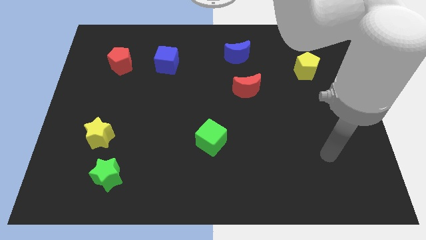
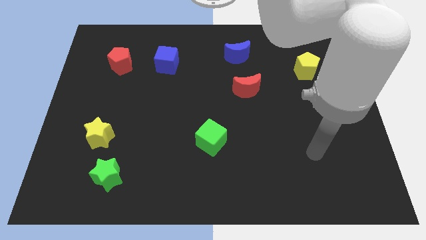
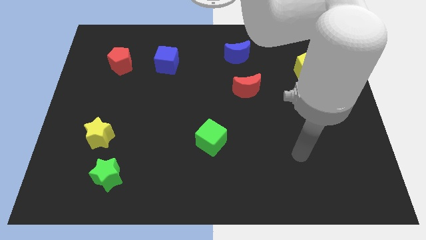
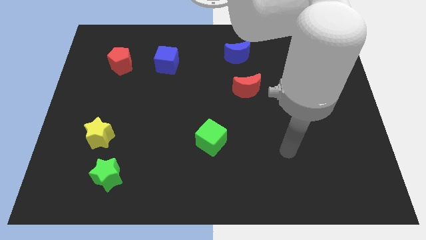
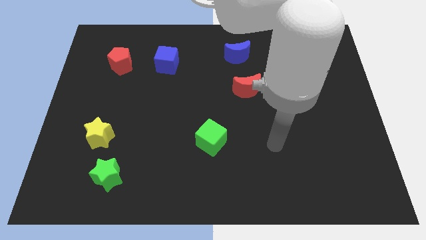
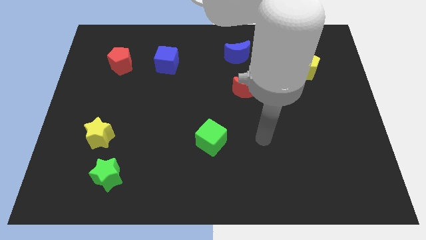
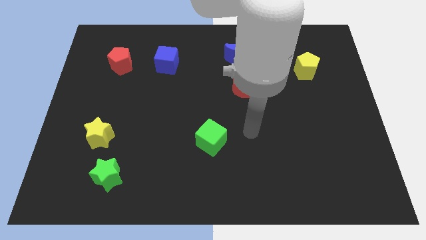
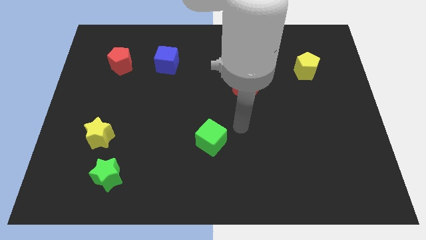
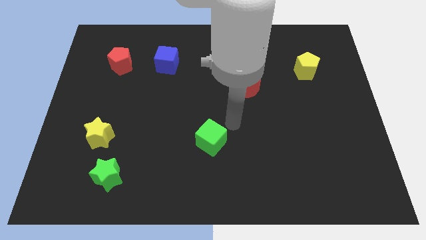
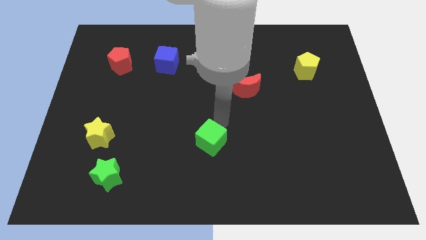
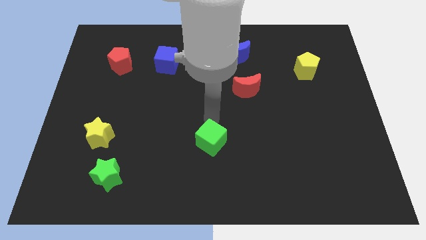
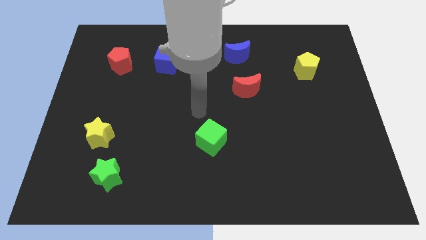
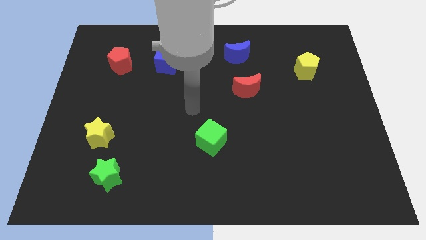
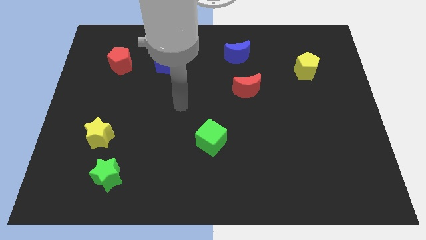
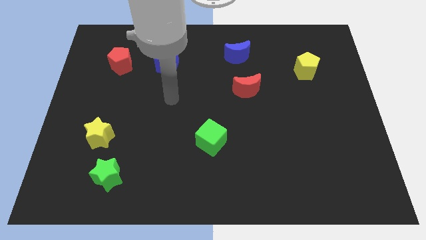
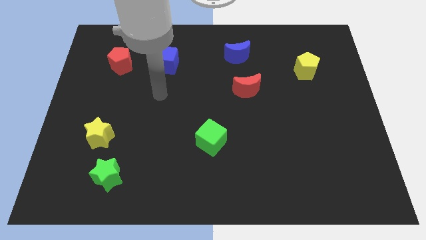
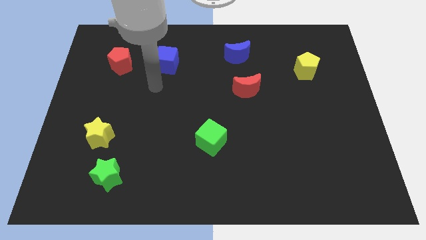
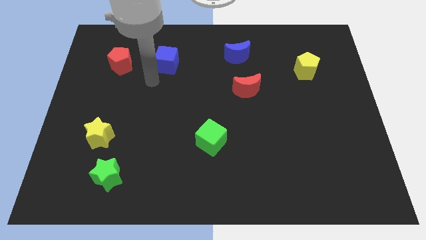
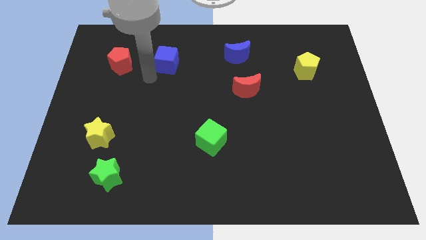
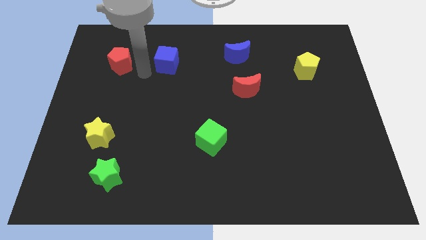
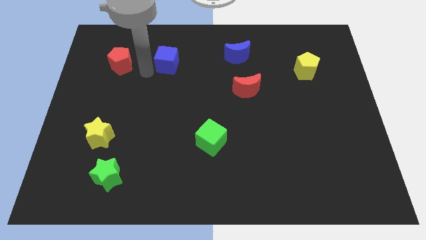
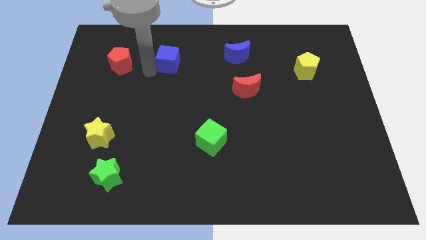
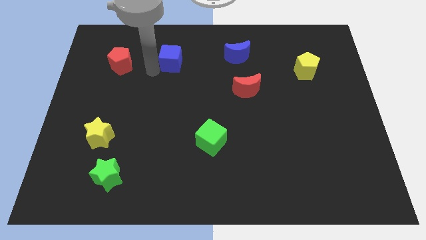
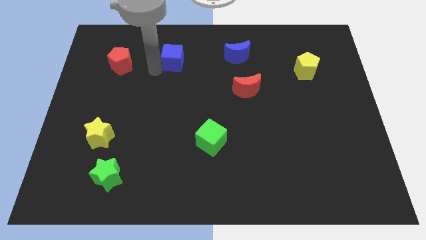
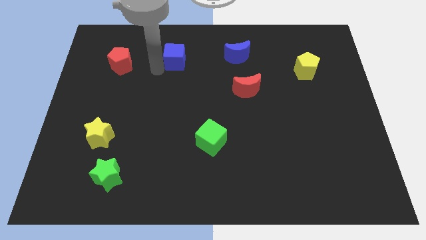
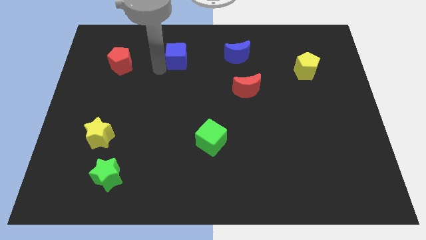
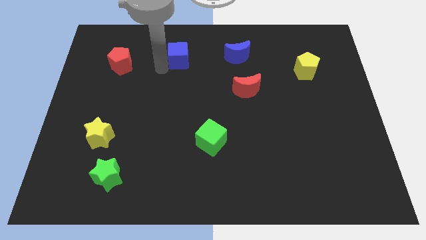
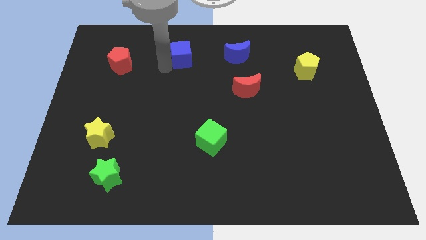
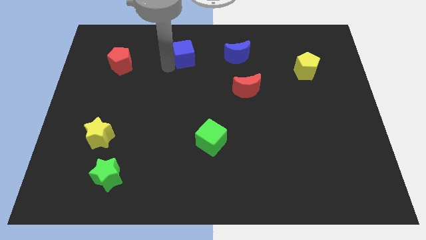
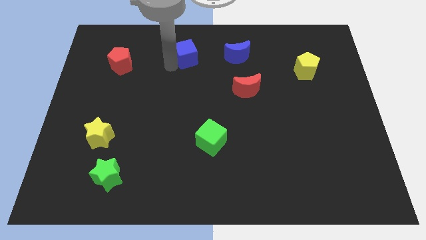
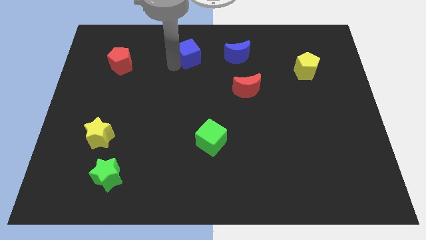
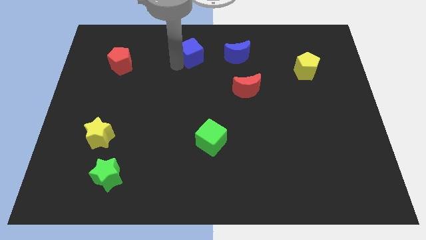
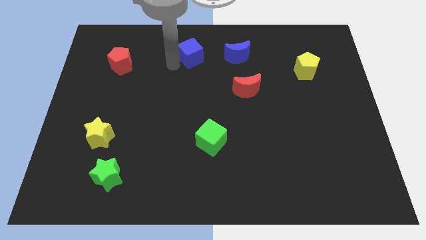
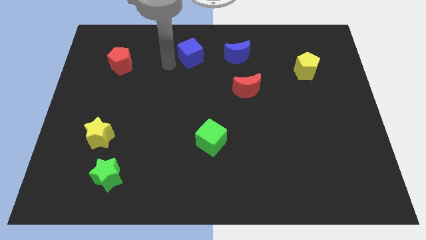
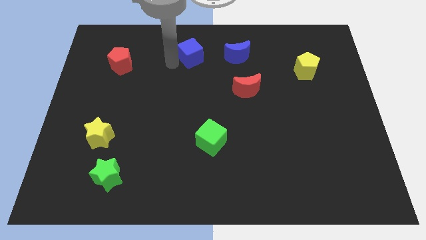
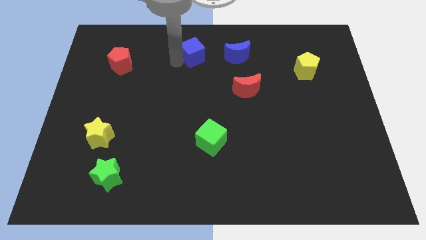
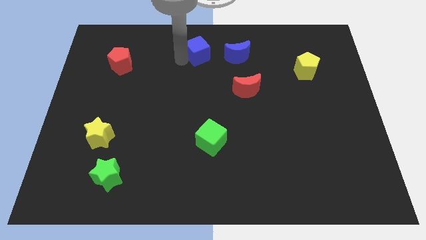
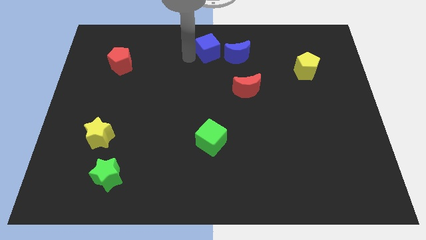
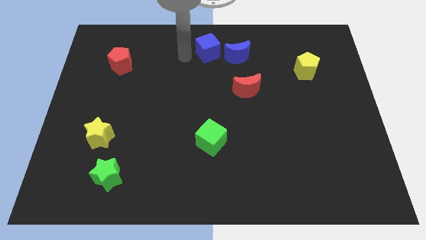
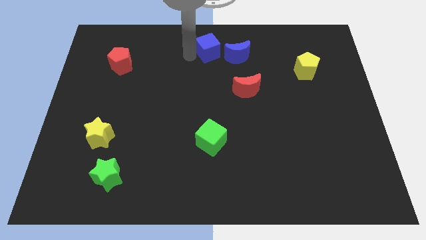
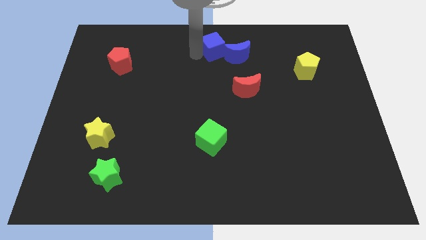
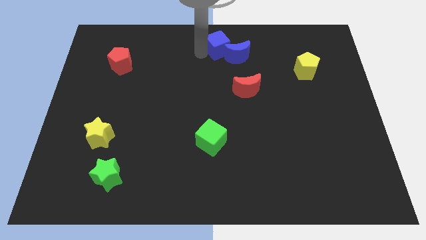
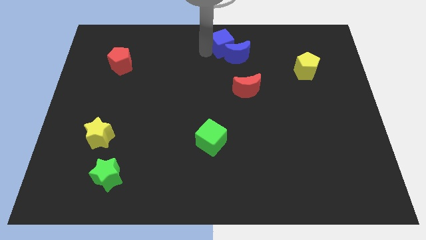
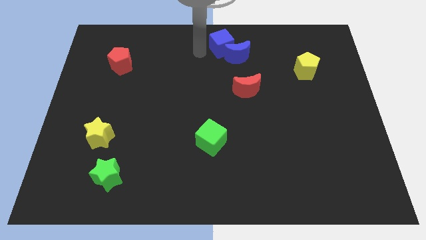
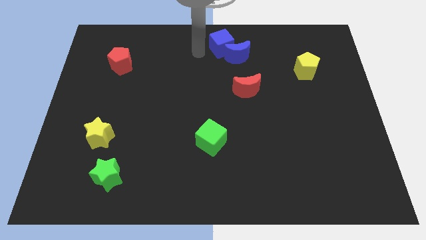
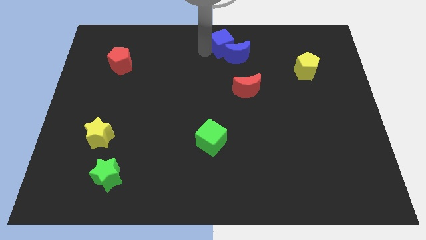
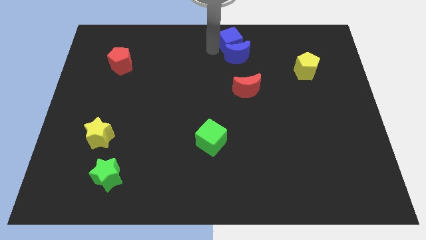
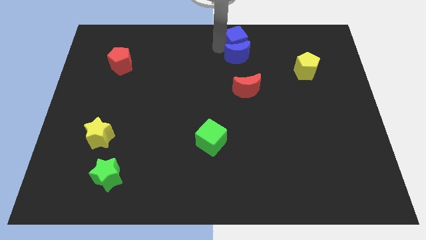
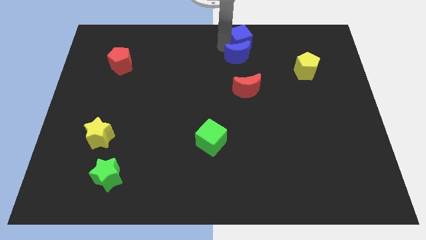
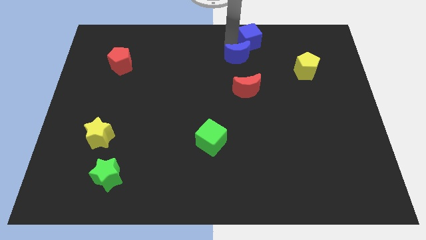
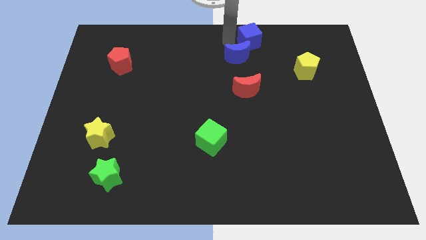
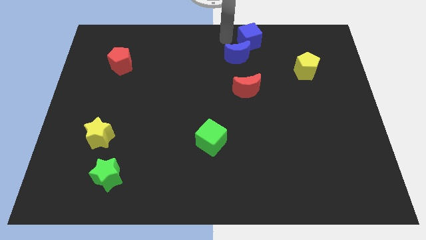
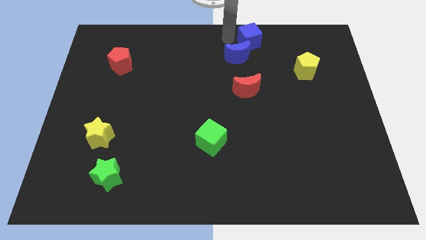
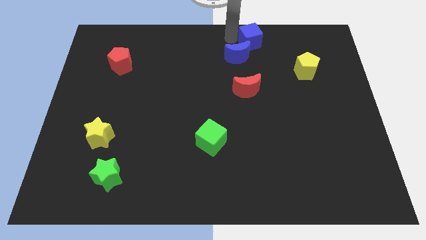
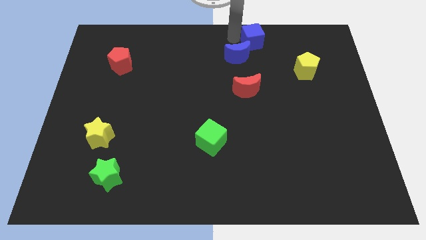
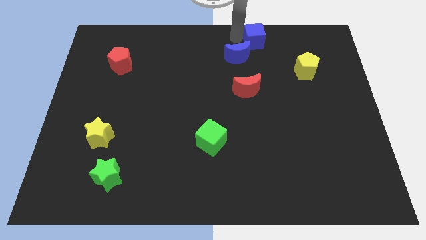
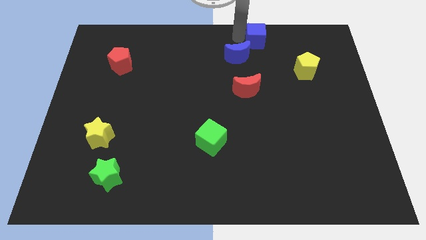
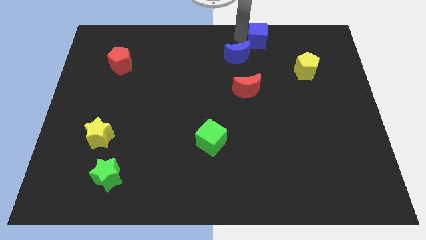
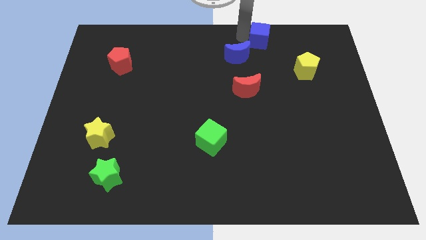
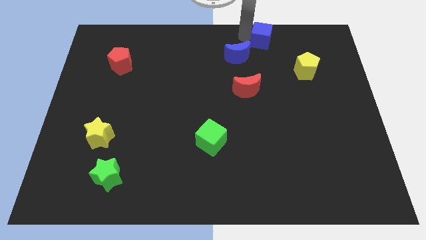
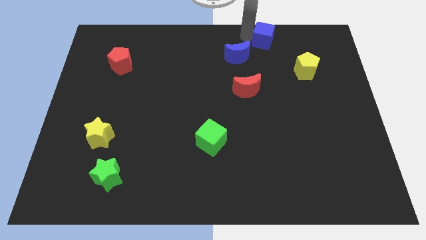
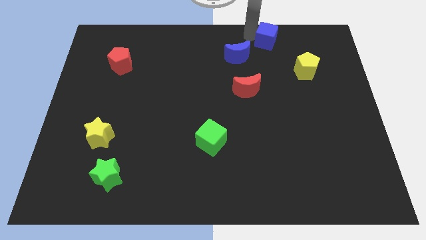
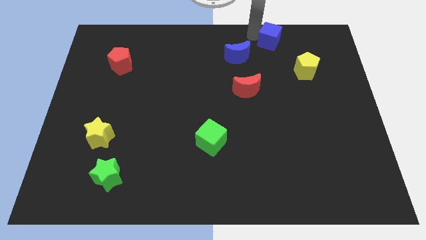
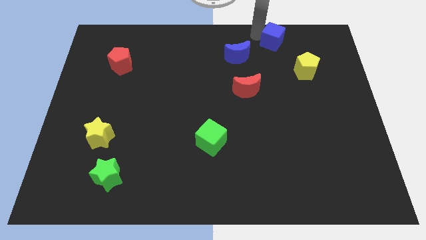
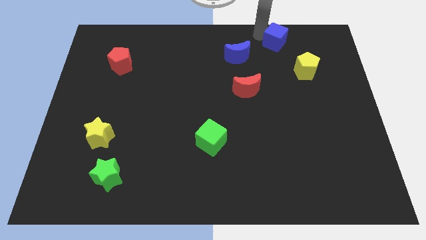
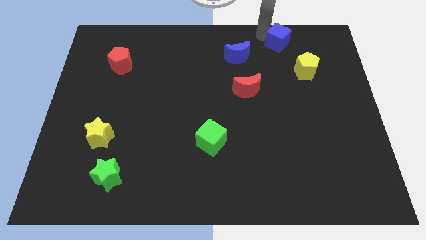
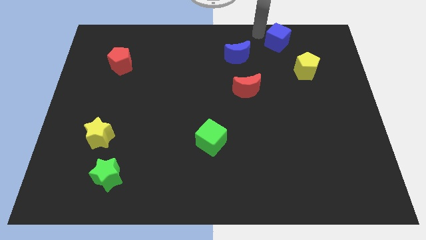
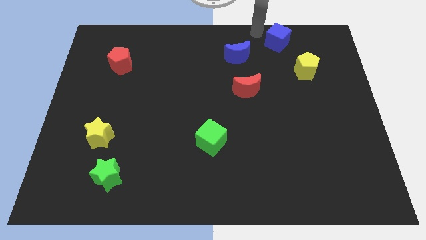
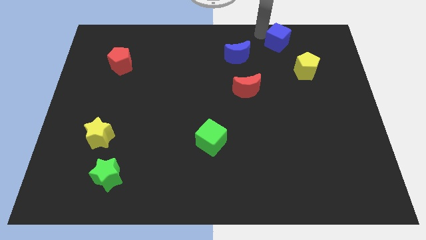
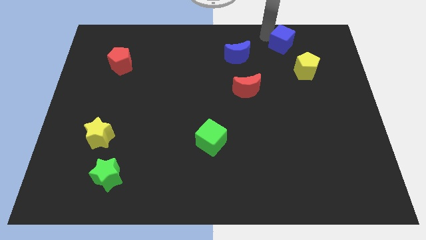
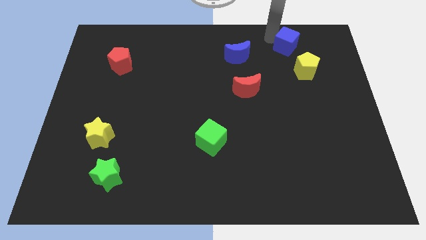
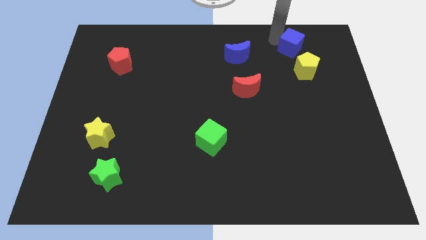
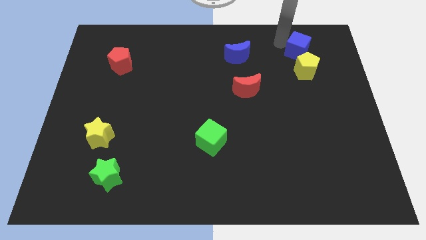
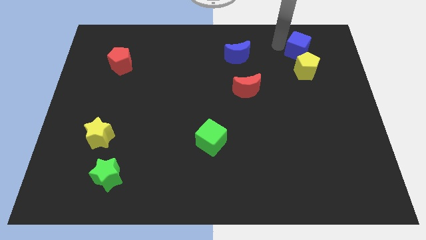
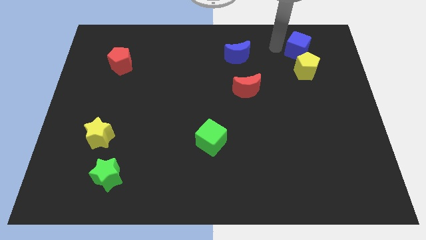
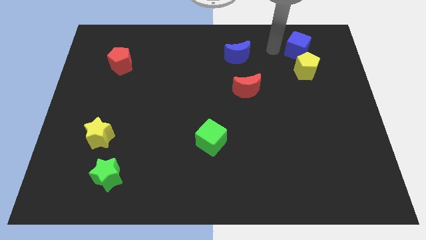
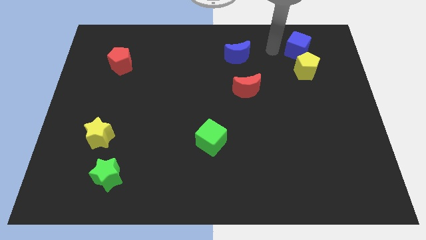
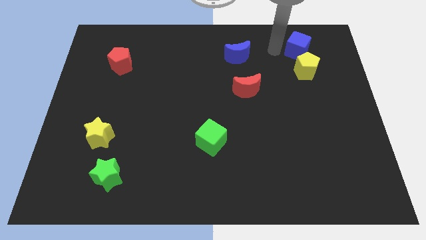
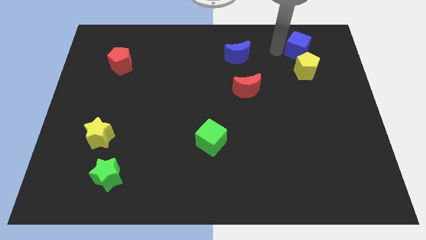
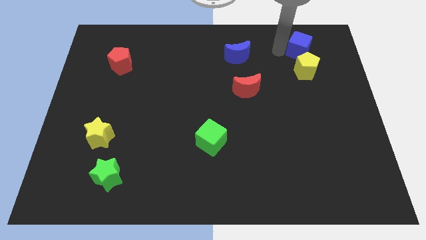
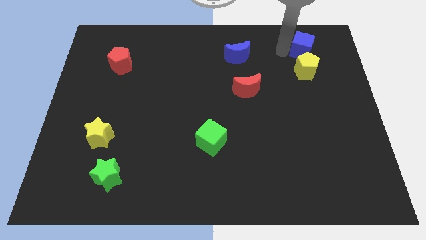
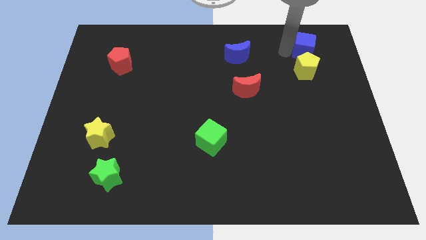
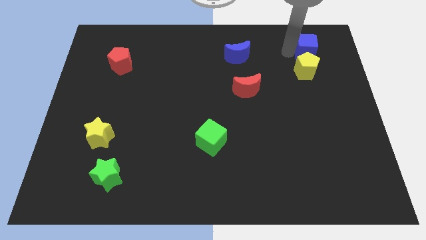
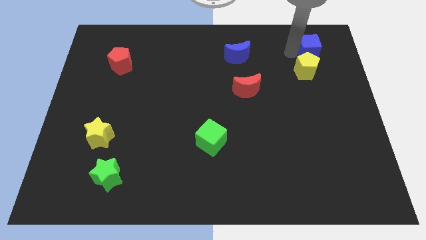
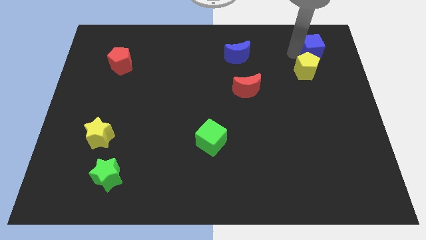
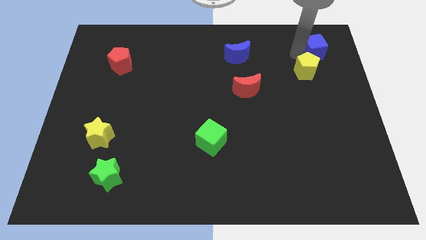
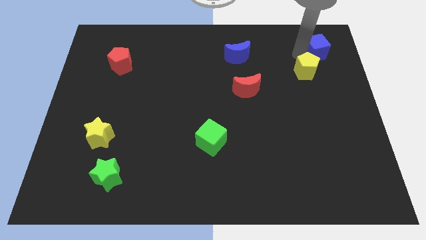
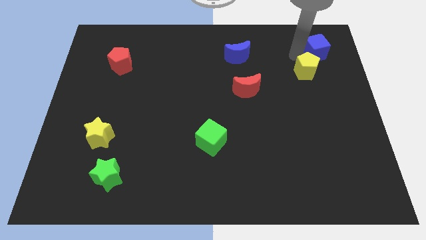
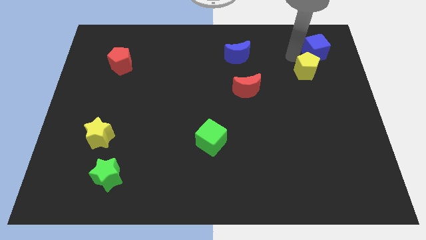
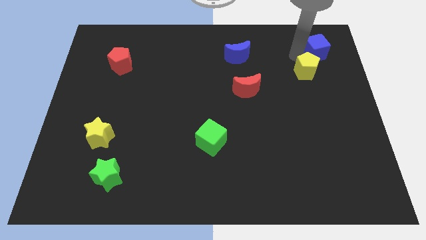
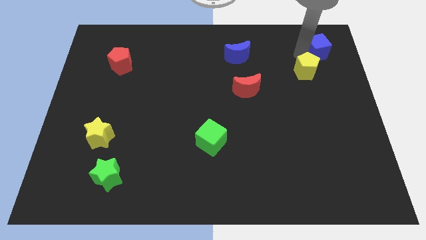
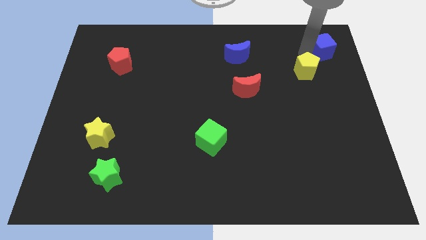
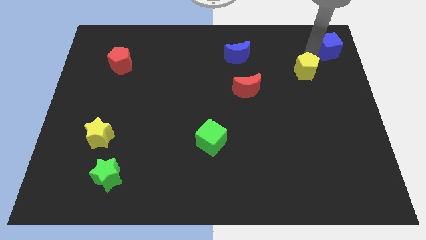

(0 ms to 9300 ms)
slide the blue cube to the top right
